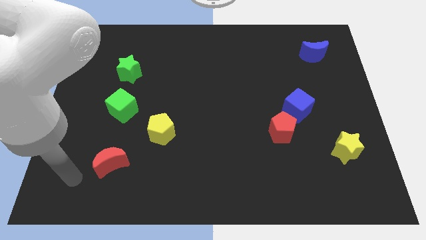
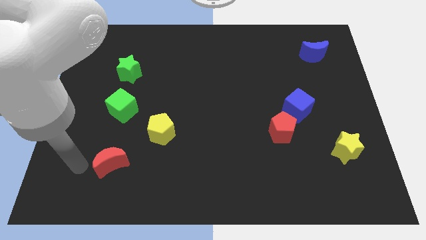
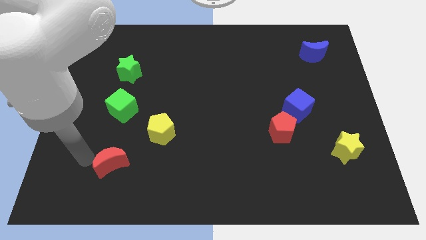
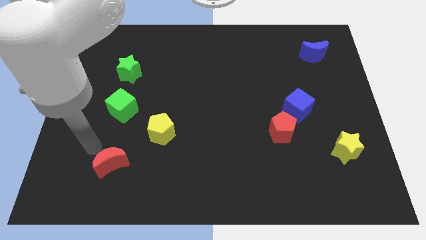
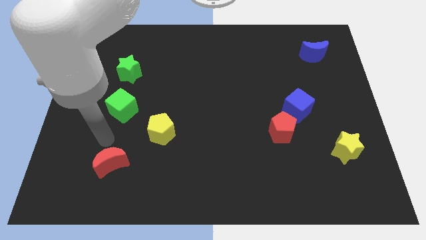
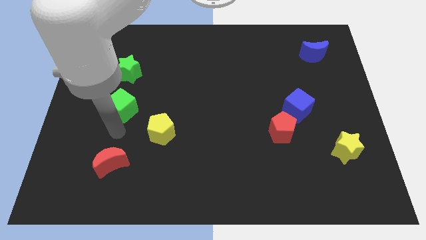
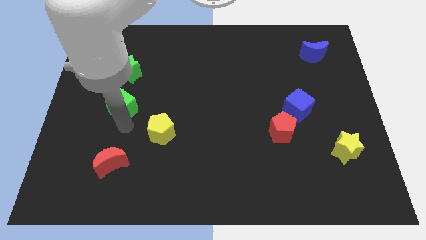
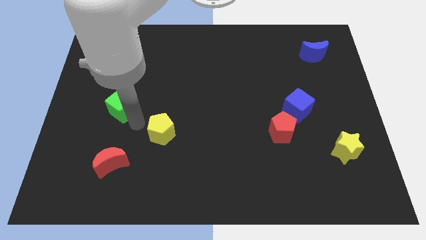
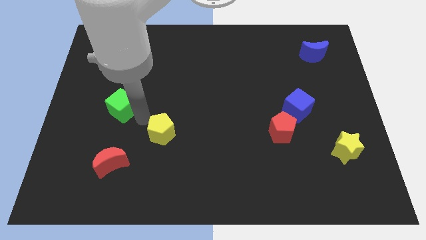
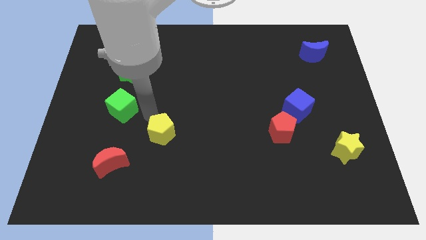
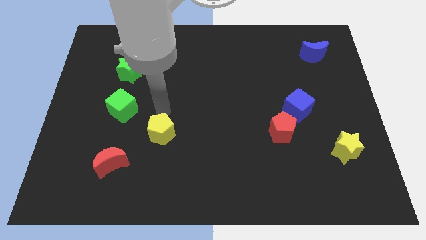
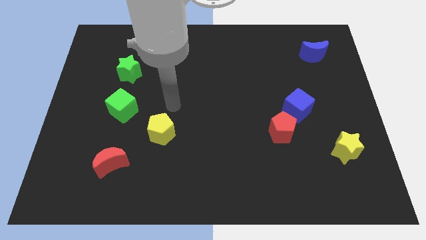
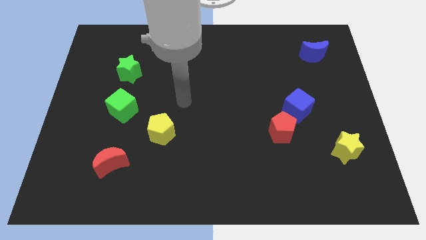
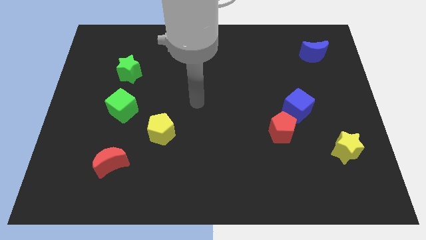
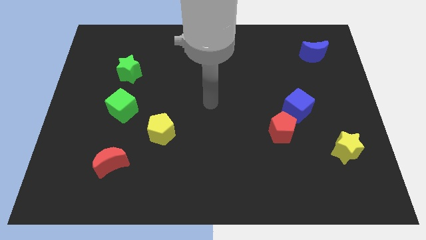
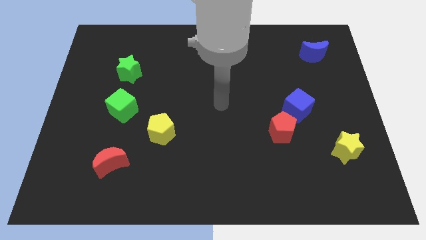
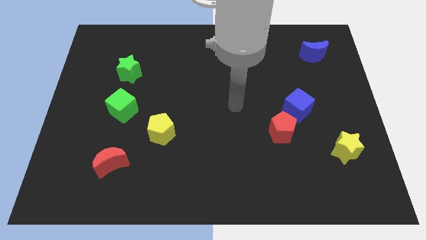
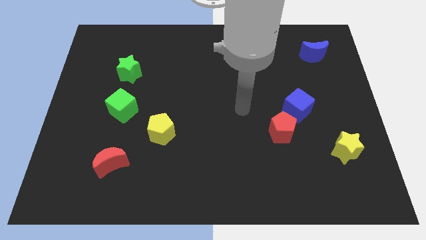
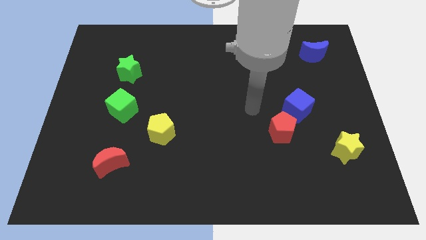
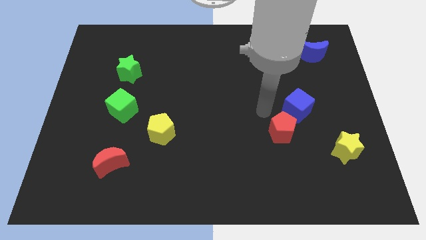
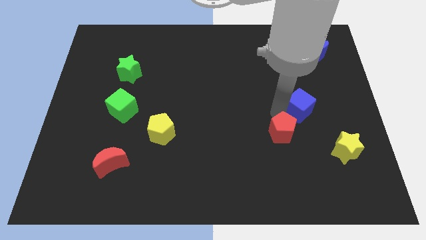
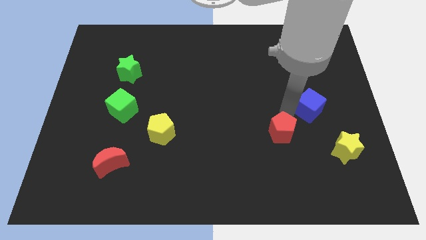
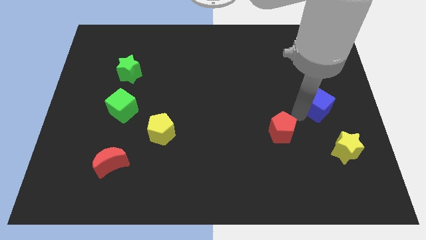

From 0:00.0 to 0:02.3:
pull the red pentagon apart from the blue cube

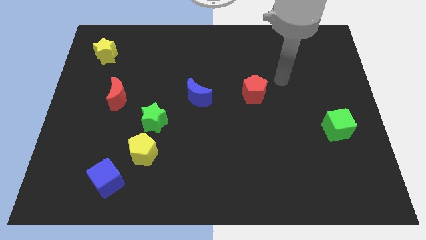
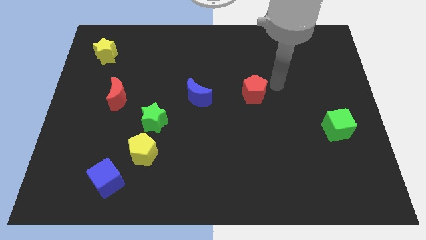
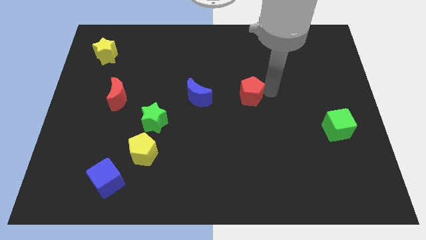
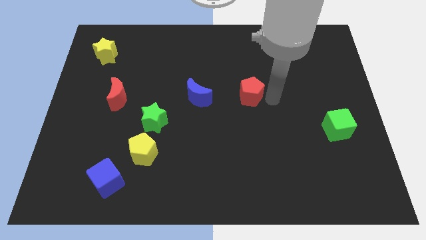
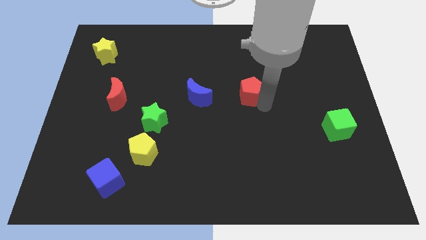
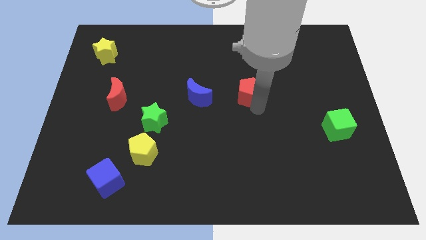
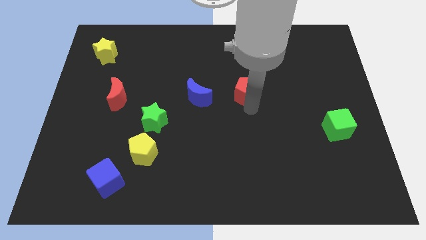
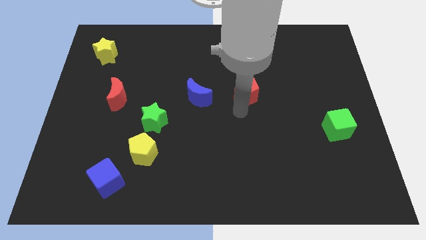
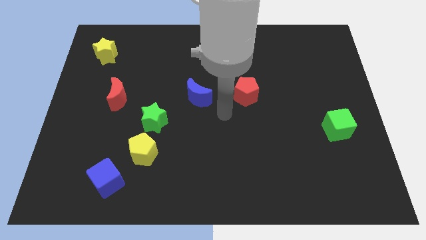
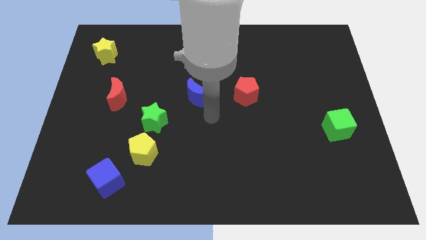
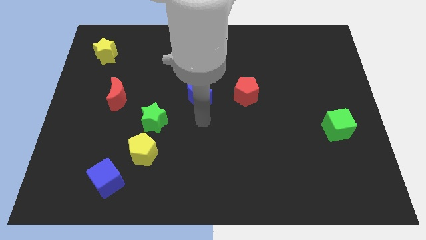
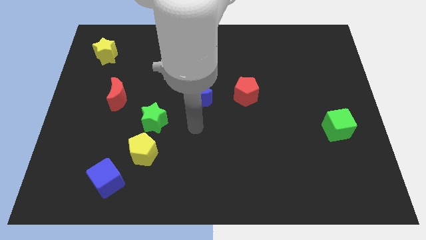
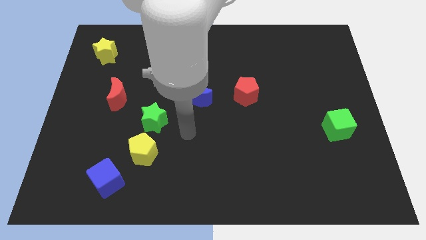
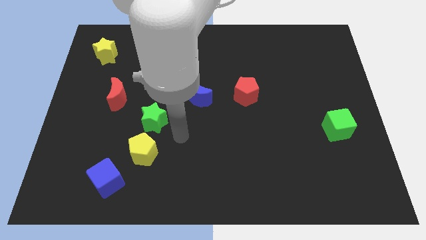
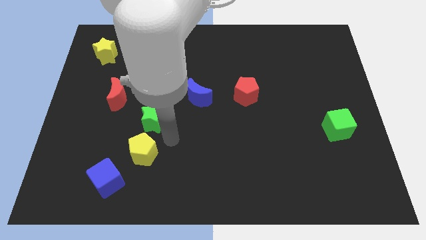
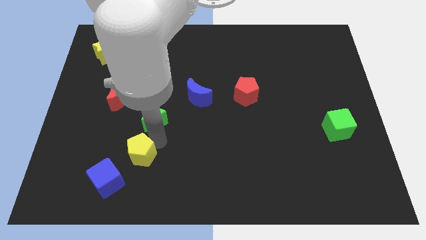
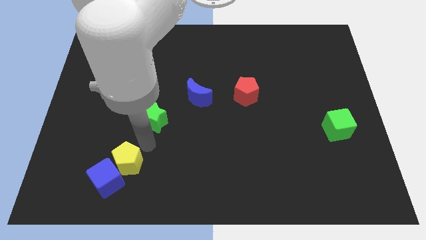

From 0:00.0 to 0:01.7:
move the green star away from the yellow pentagon

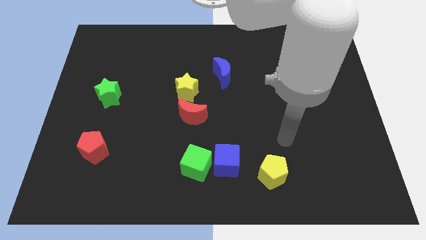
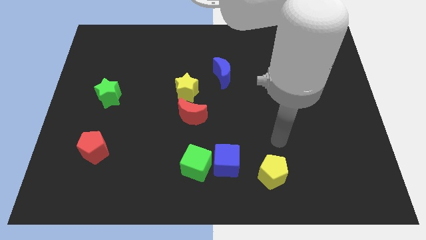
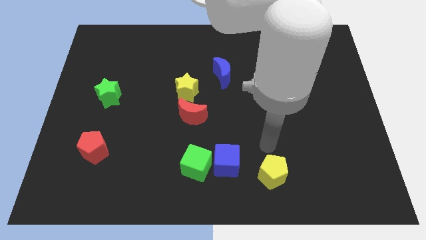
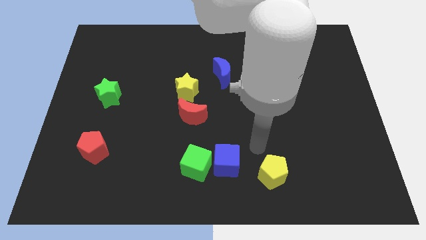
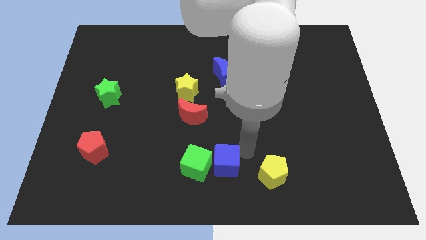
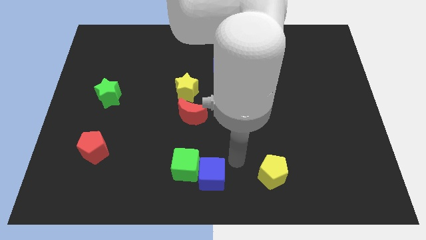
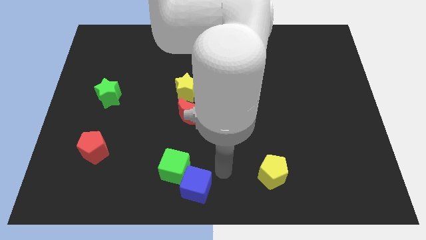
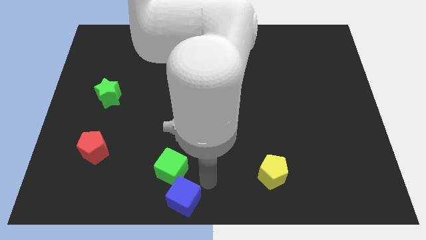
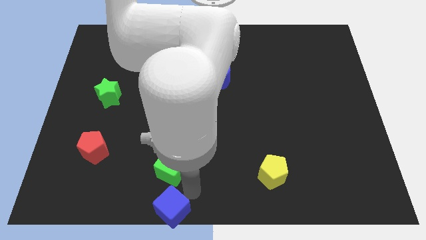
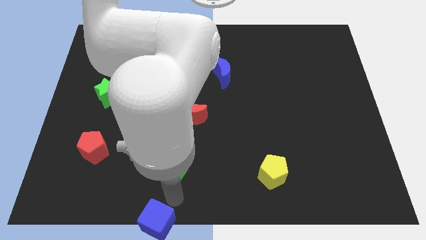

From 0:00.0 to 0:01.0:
separate the green cube from the blue cube

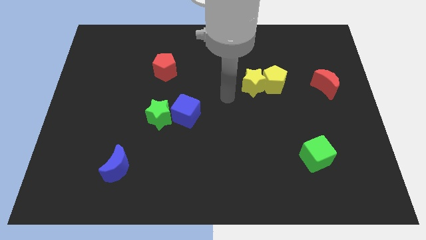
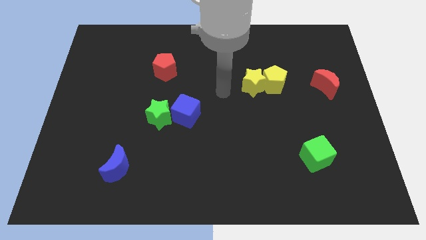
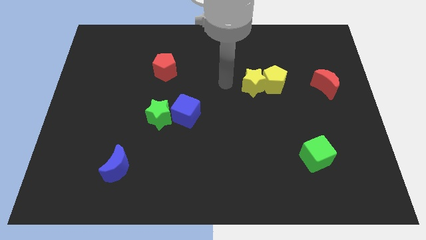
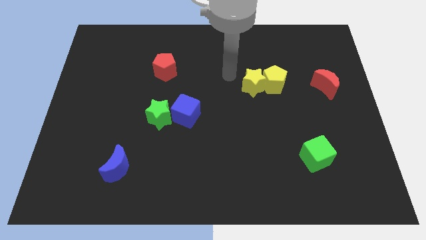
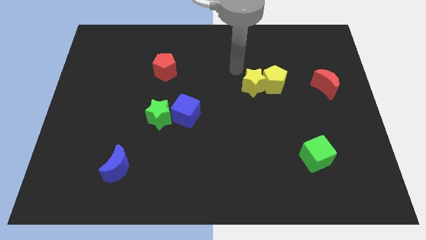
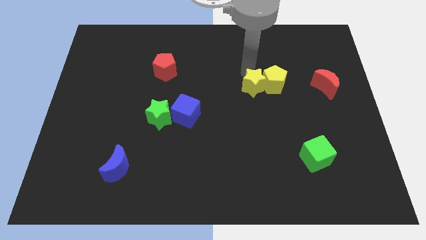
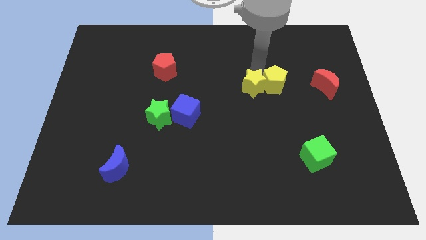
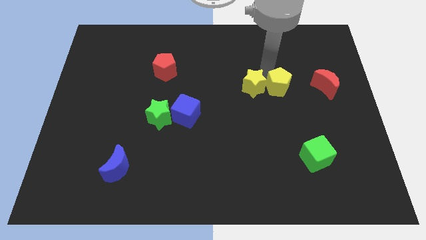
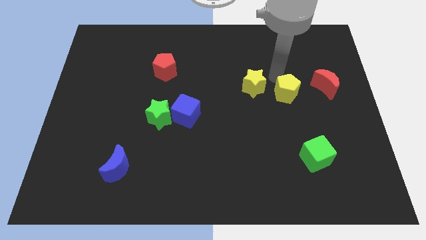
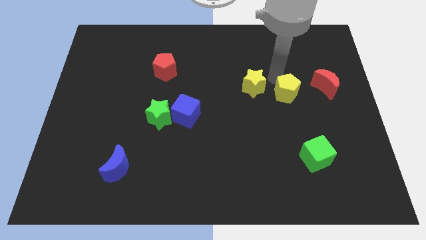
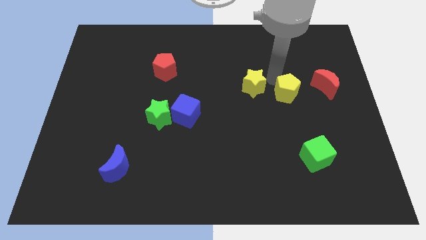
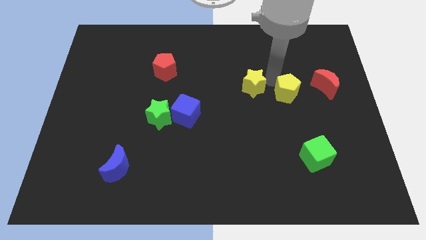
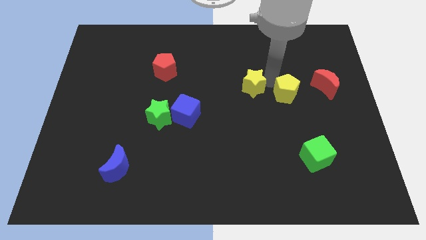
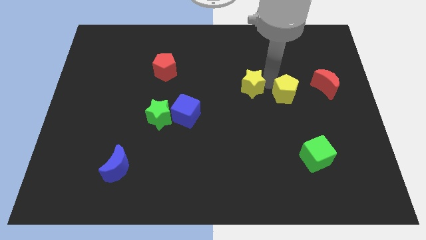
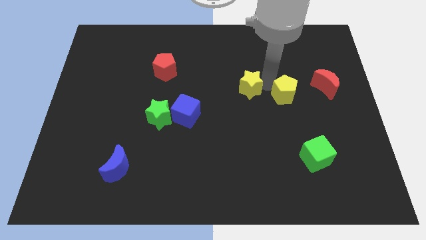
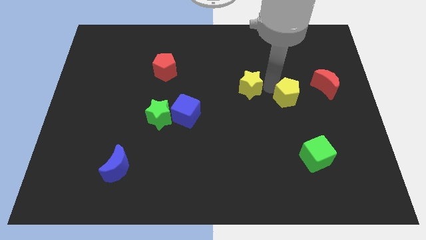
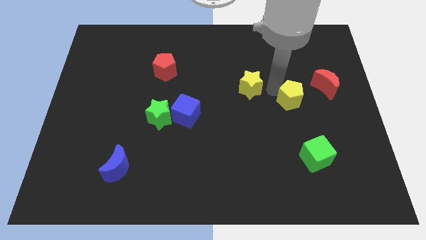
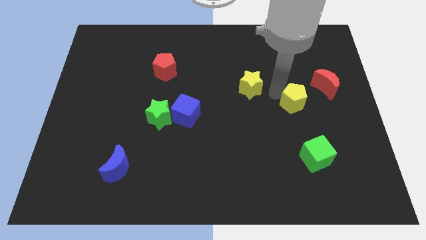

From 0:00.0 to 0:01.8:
separate the yellow star from the yellow pentagon

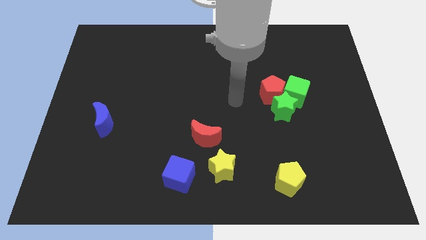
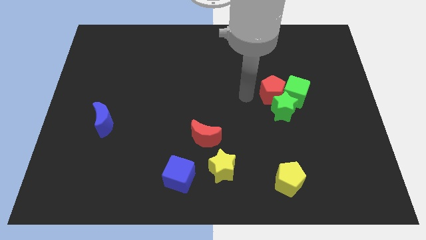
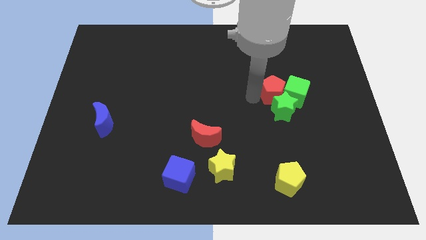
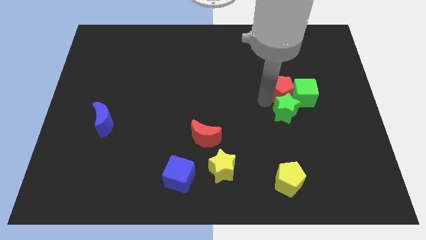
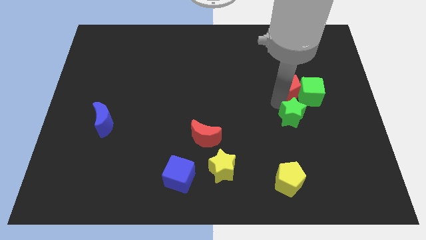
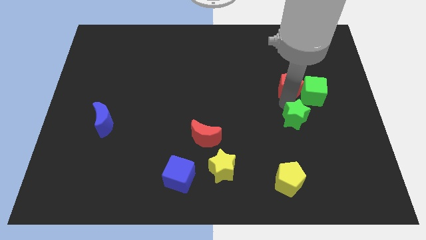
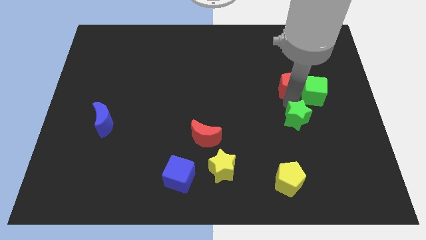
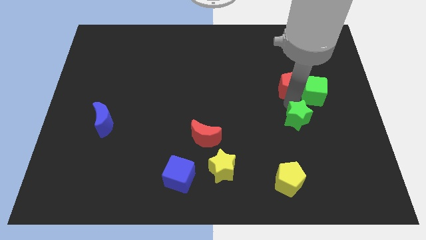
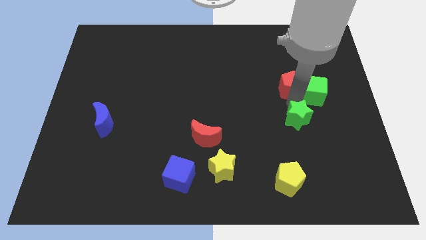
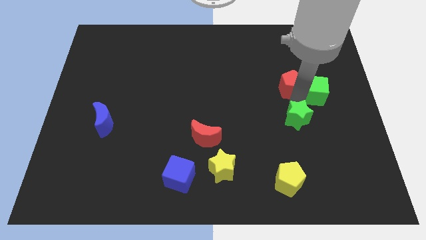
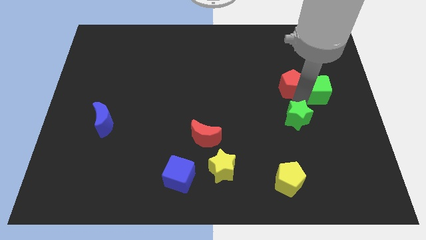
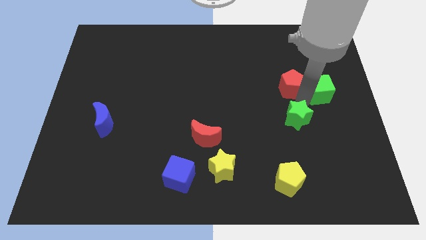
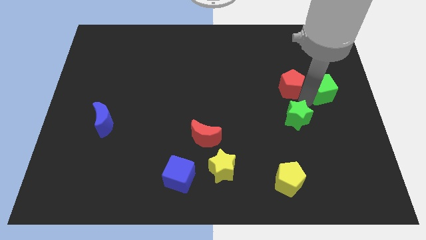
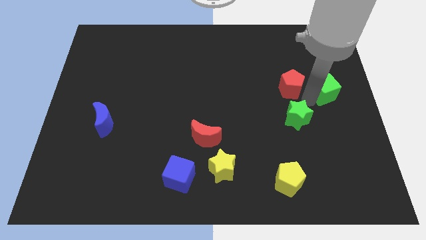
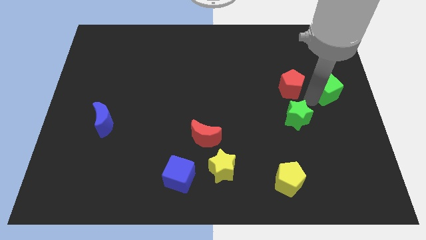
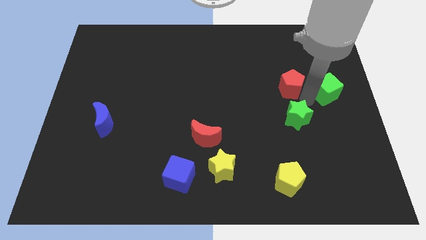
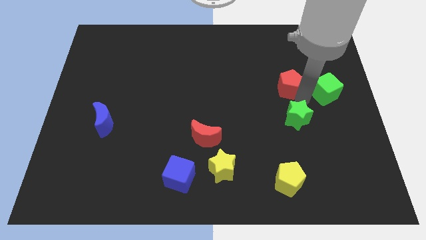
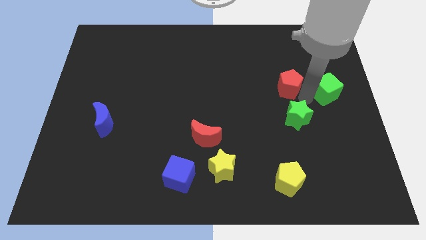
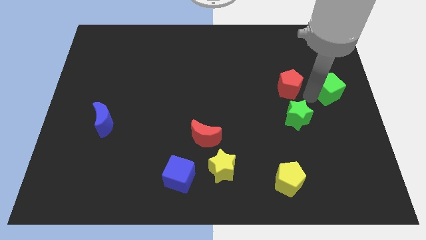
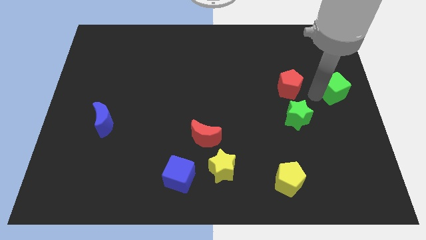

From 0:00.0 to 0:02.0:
separate the green cube from the red pentagon and green star

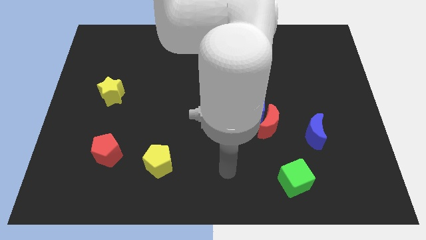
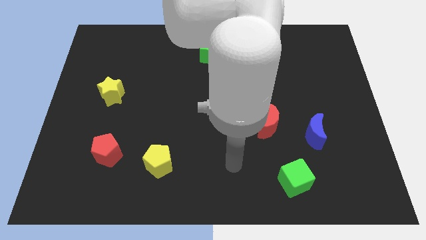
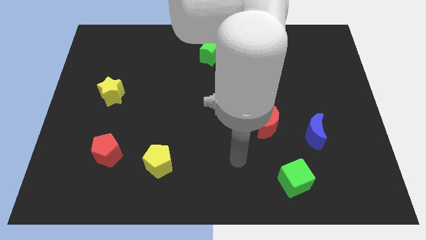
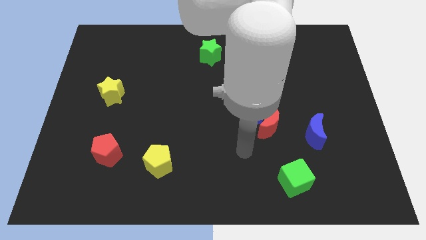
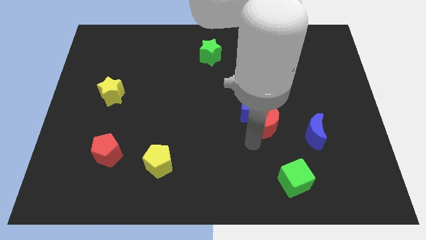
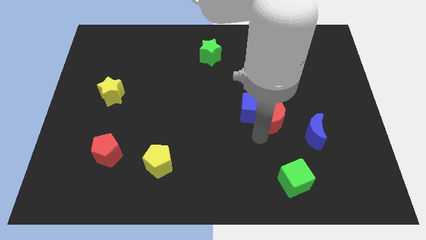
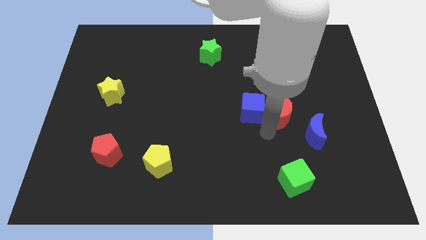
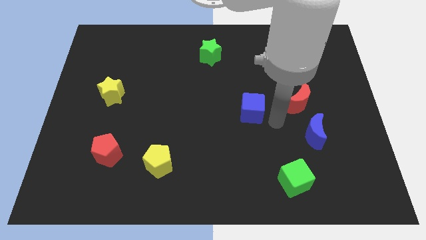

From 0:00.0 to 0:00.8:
separate the blue cube from the red moon
